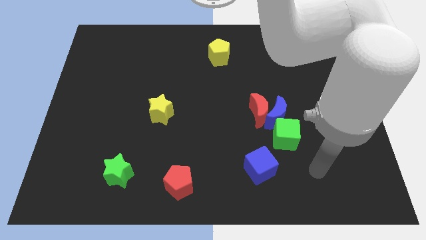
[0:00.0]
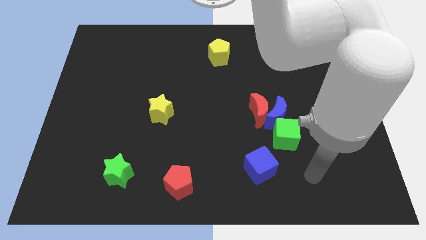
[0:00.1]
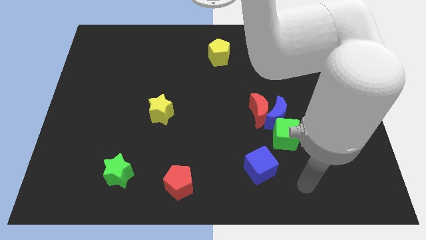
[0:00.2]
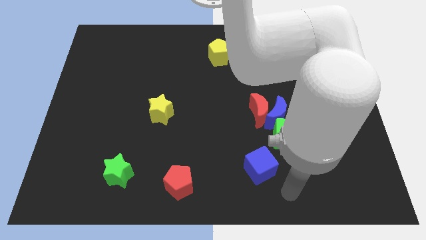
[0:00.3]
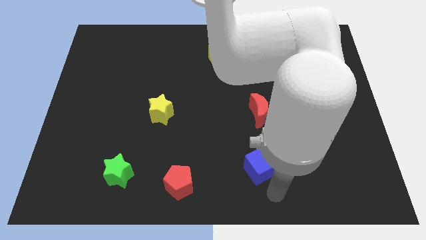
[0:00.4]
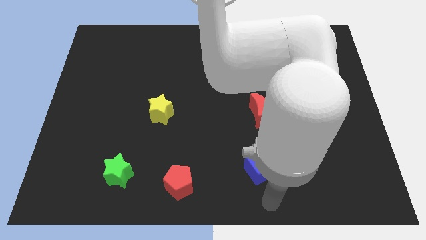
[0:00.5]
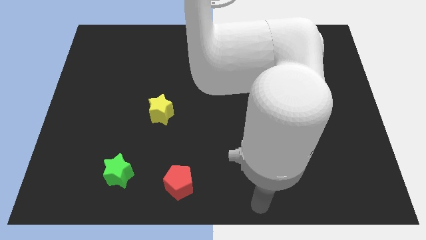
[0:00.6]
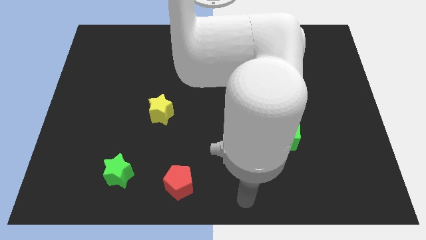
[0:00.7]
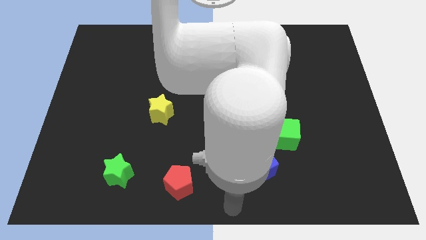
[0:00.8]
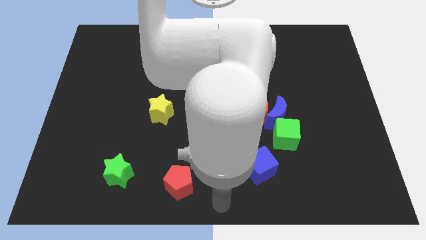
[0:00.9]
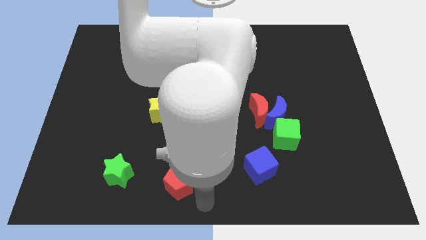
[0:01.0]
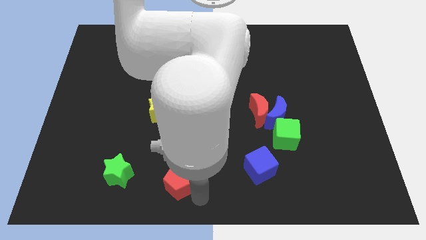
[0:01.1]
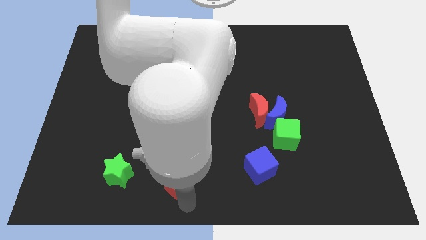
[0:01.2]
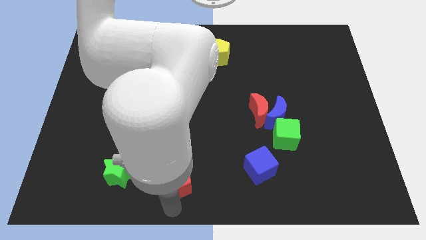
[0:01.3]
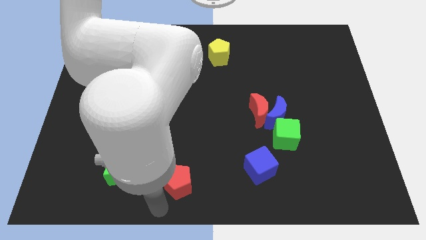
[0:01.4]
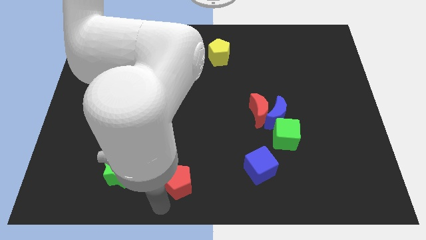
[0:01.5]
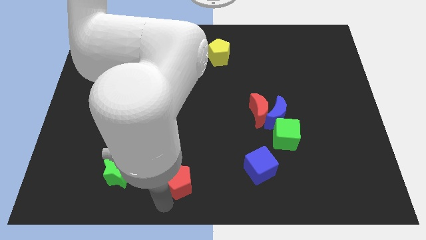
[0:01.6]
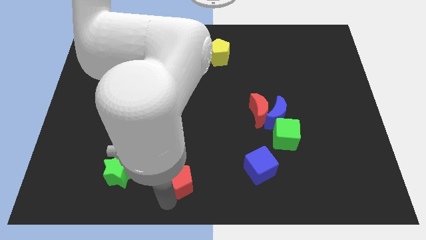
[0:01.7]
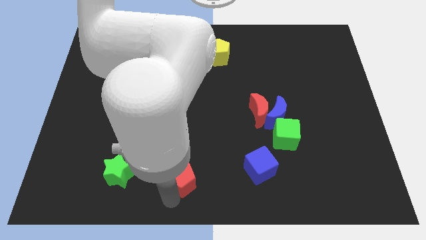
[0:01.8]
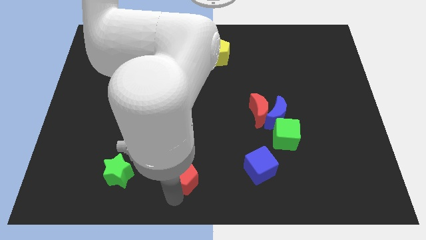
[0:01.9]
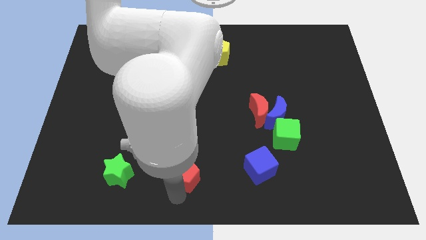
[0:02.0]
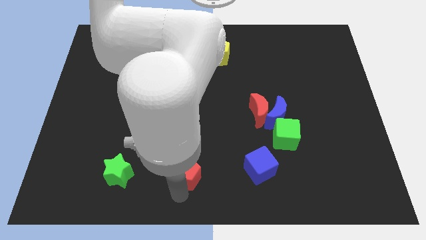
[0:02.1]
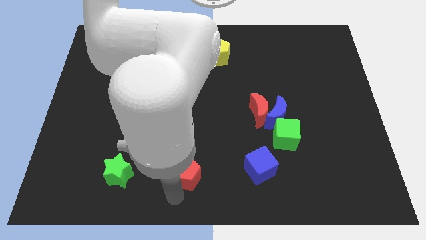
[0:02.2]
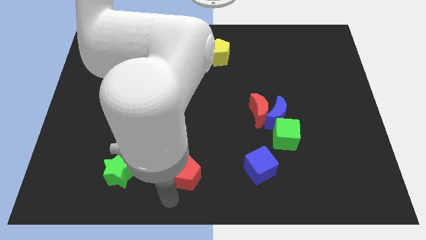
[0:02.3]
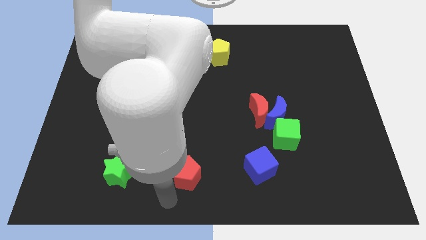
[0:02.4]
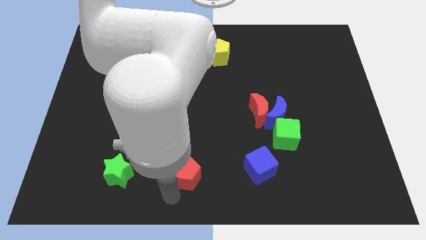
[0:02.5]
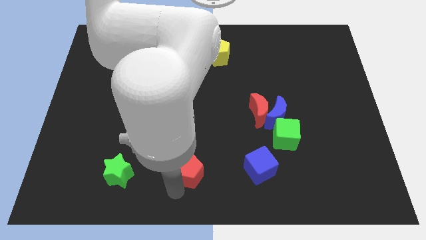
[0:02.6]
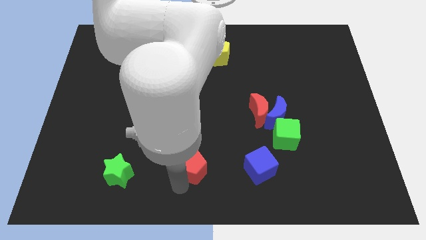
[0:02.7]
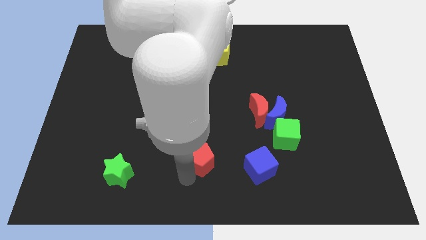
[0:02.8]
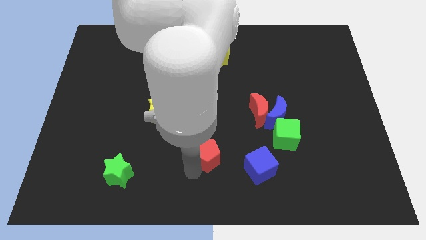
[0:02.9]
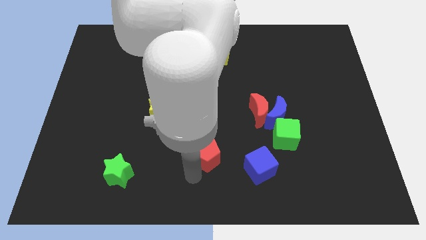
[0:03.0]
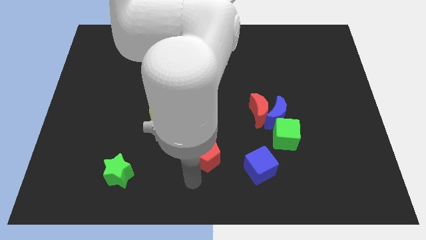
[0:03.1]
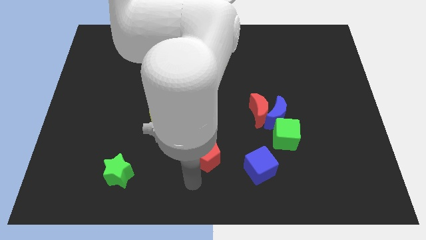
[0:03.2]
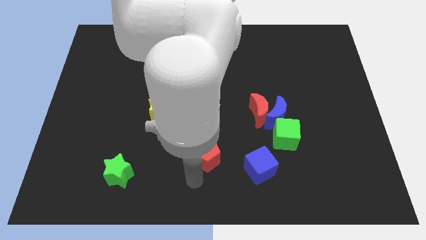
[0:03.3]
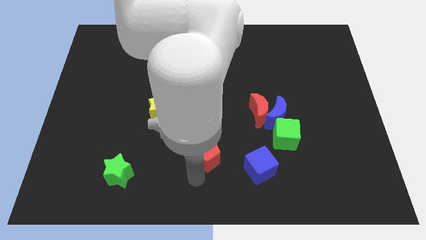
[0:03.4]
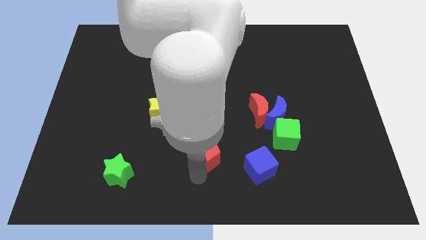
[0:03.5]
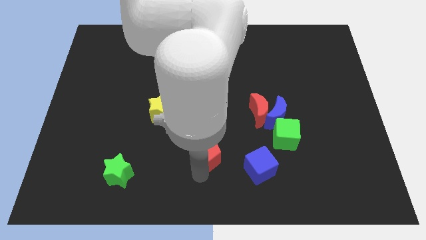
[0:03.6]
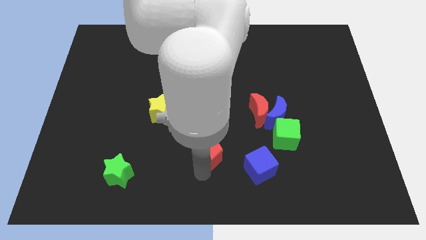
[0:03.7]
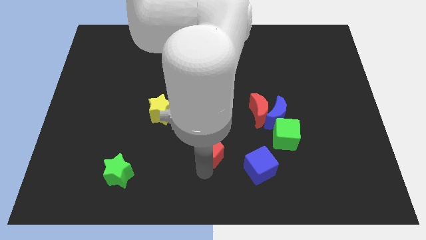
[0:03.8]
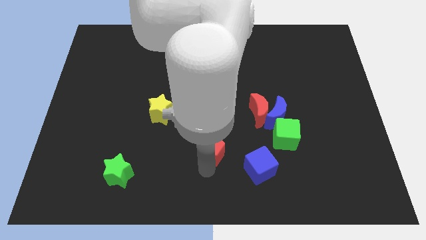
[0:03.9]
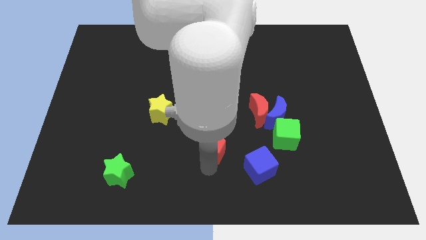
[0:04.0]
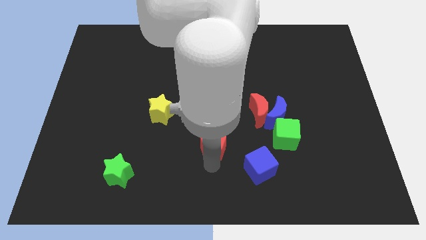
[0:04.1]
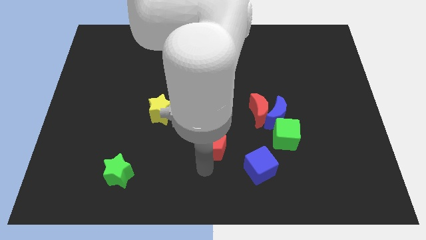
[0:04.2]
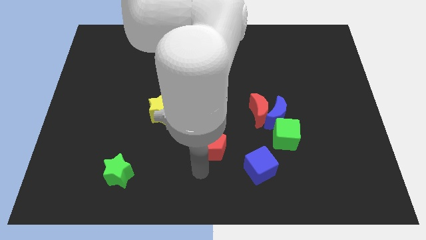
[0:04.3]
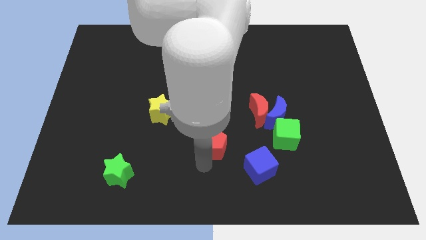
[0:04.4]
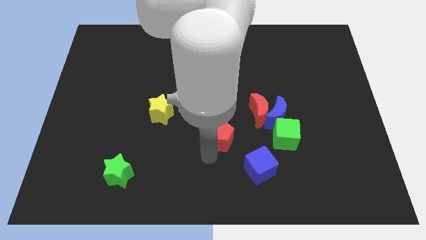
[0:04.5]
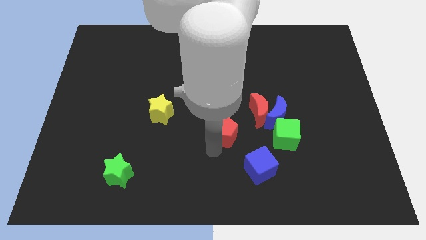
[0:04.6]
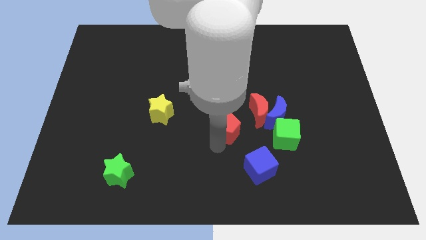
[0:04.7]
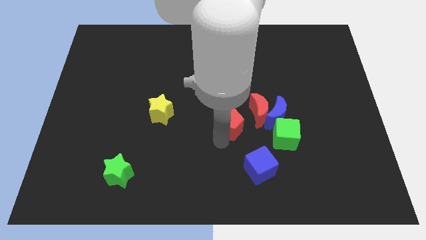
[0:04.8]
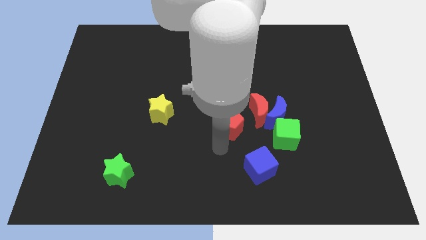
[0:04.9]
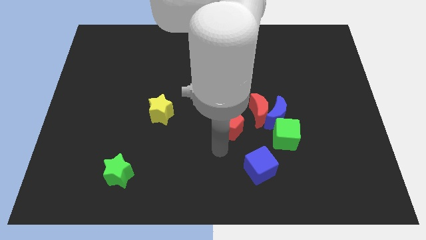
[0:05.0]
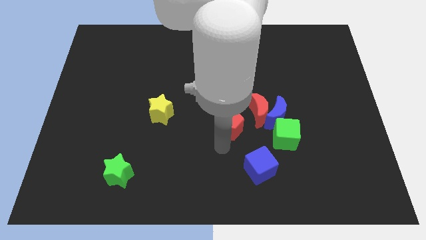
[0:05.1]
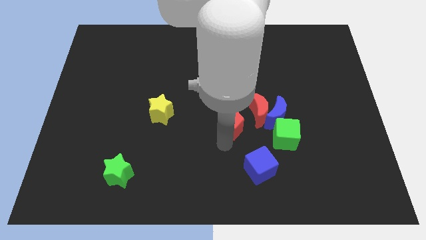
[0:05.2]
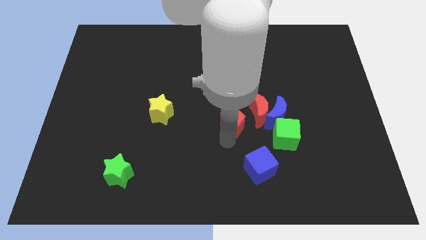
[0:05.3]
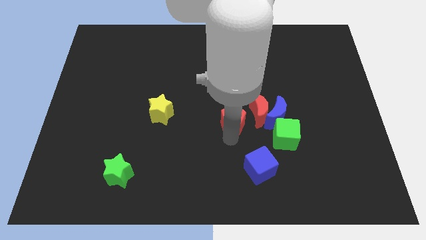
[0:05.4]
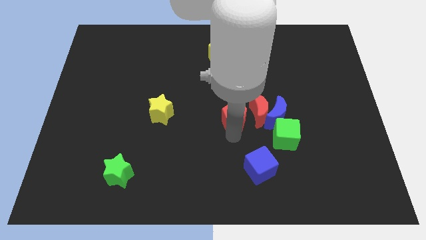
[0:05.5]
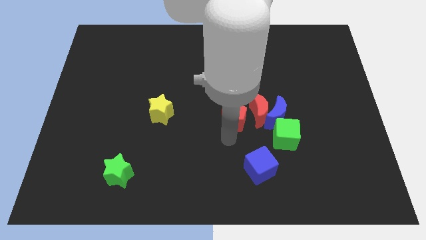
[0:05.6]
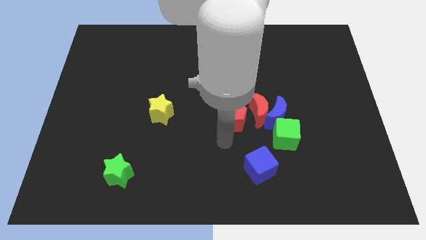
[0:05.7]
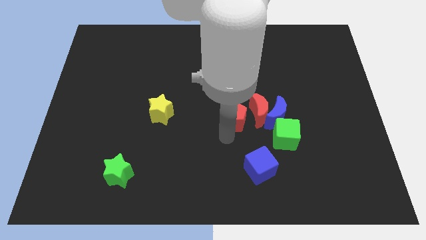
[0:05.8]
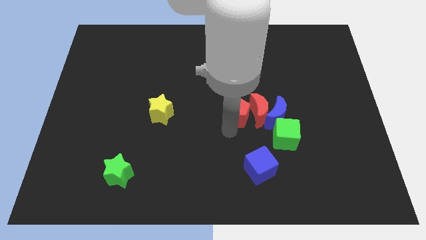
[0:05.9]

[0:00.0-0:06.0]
move the red pentagon up and then right

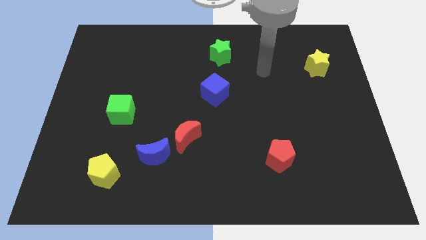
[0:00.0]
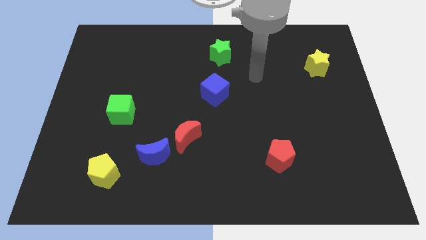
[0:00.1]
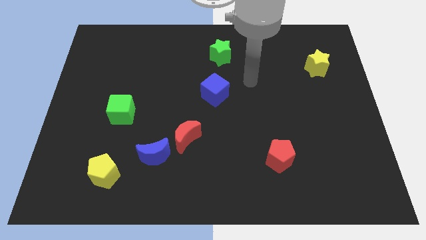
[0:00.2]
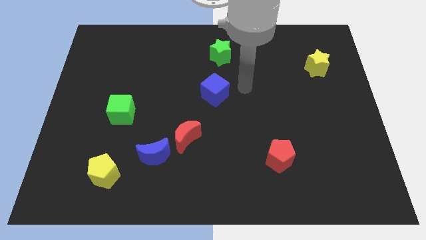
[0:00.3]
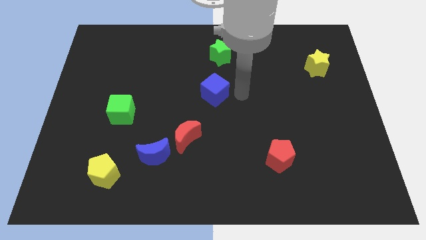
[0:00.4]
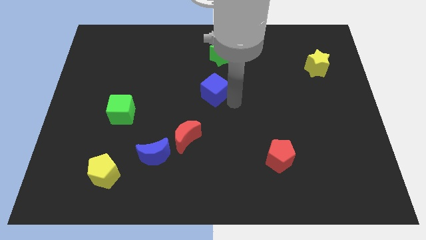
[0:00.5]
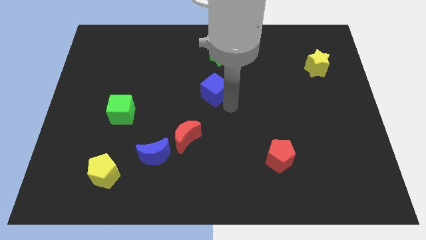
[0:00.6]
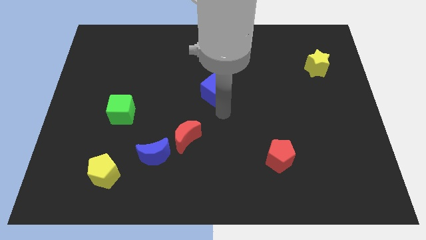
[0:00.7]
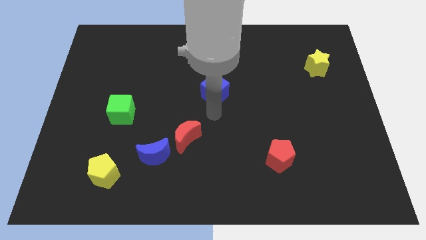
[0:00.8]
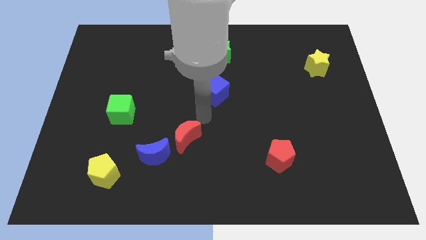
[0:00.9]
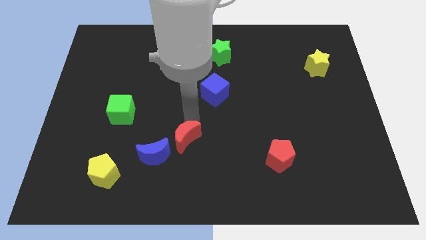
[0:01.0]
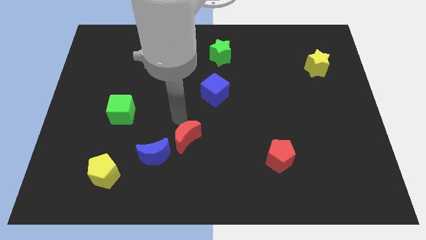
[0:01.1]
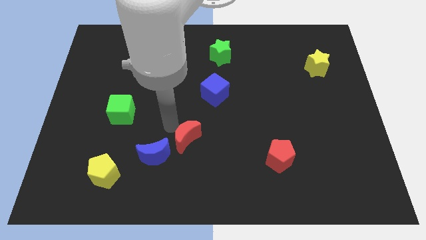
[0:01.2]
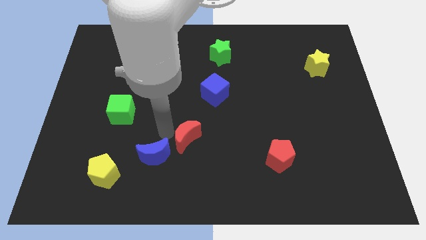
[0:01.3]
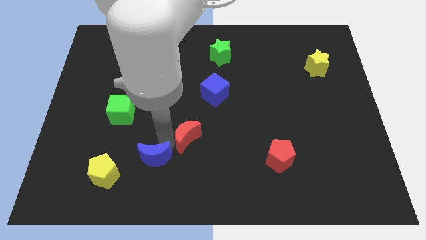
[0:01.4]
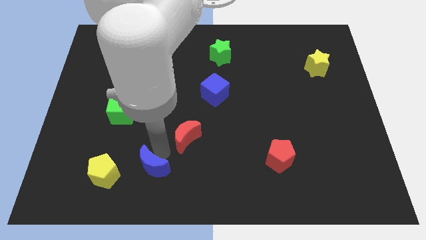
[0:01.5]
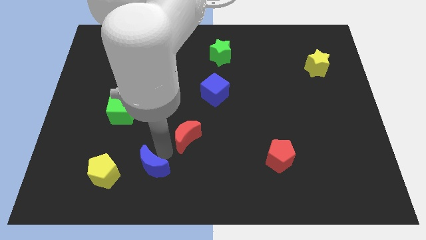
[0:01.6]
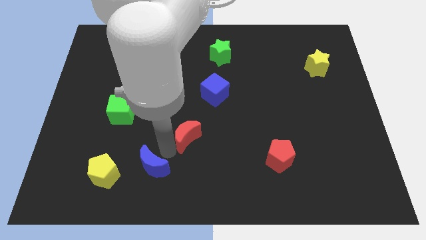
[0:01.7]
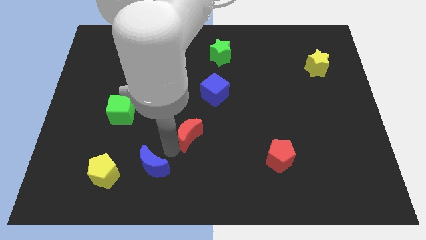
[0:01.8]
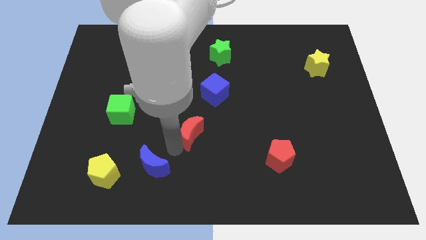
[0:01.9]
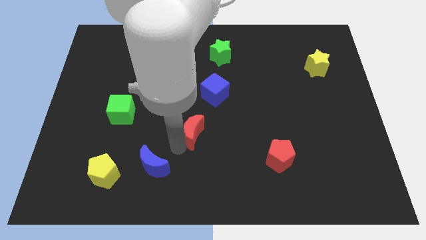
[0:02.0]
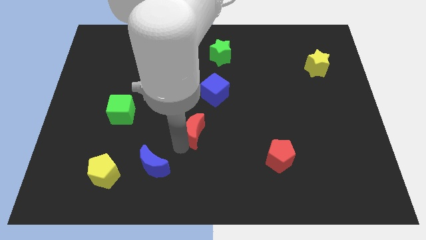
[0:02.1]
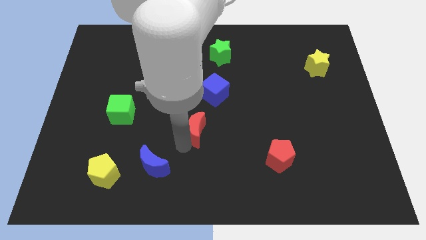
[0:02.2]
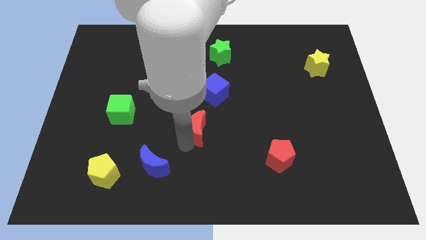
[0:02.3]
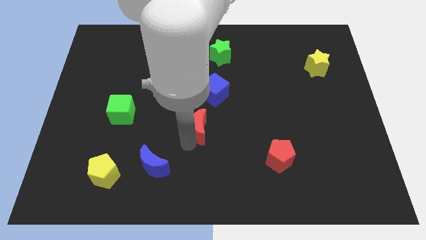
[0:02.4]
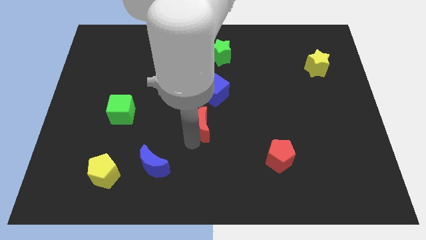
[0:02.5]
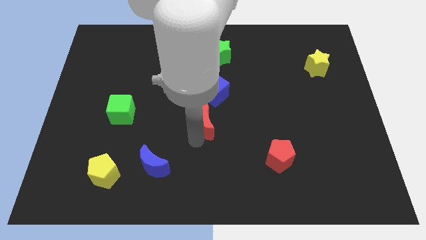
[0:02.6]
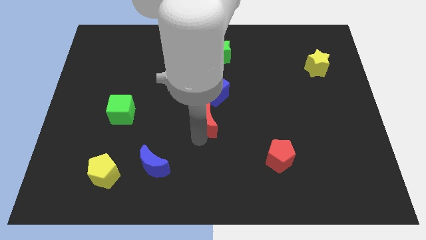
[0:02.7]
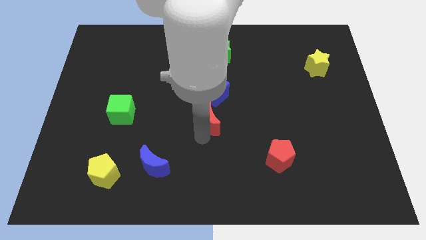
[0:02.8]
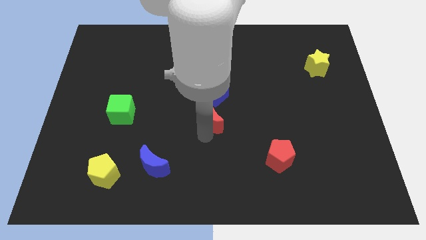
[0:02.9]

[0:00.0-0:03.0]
move the red moon a little bit upwards and right
